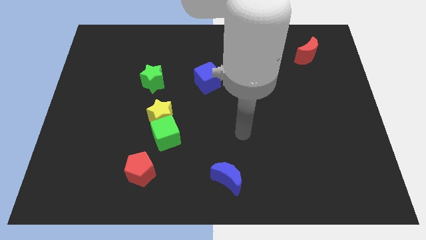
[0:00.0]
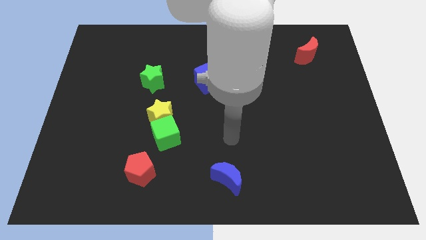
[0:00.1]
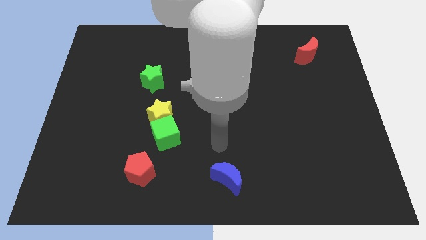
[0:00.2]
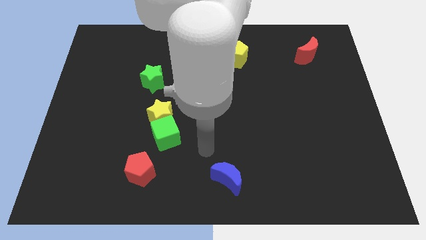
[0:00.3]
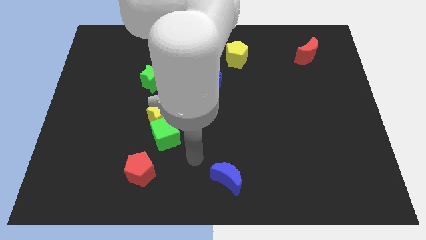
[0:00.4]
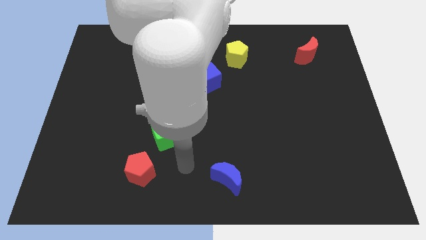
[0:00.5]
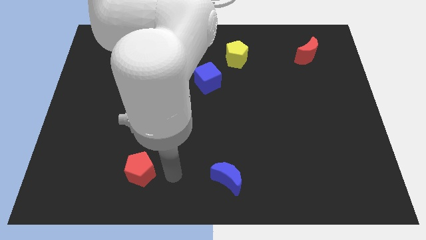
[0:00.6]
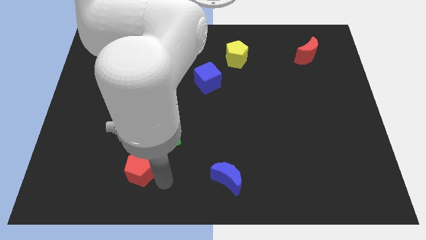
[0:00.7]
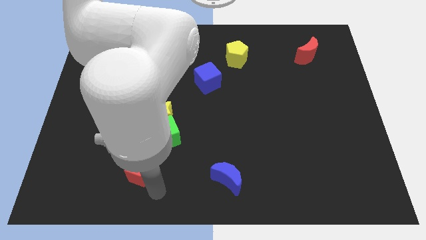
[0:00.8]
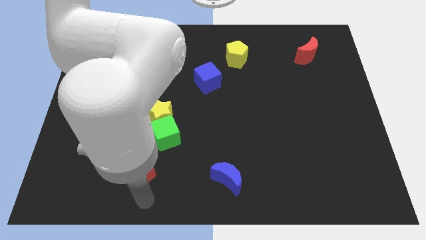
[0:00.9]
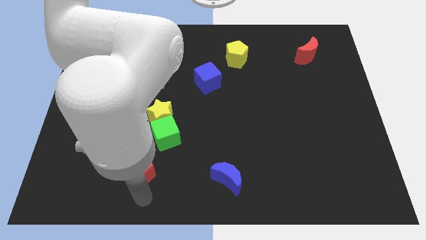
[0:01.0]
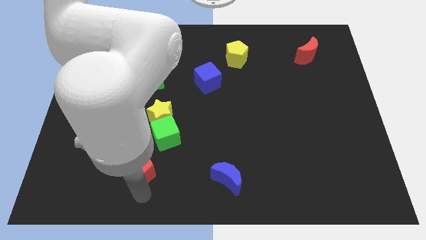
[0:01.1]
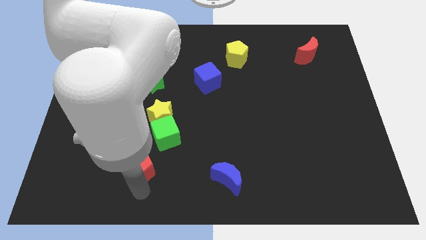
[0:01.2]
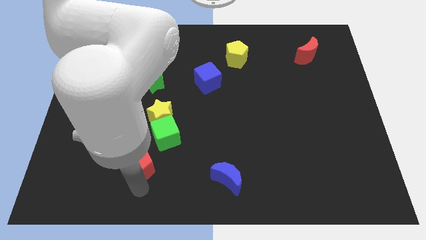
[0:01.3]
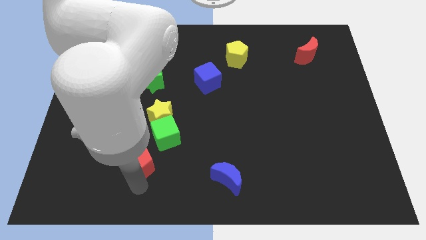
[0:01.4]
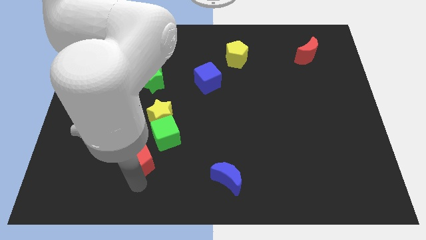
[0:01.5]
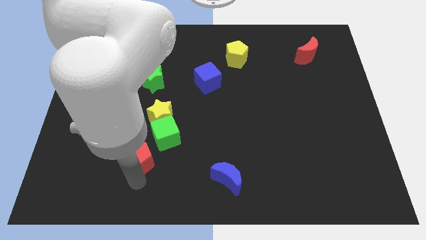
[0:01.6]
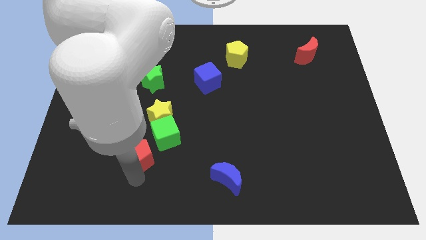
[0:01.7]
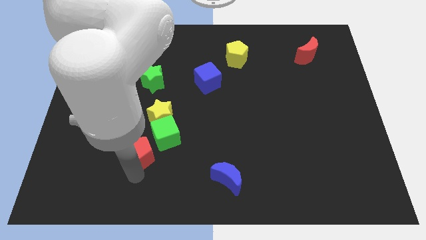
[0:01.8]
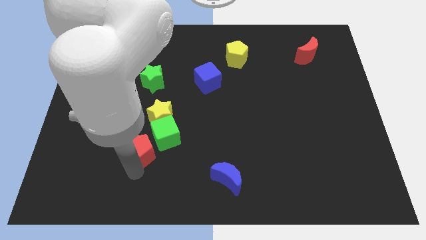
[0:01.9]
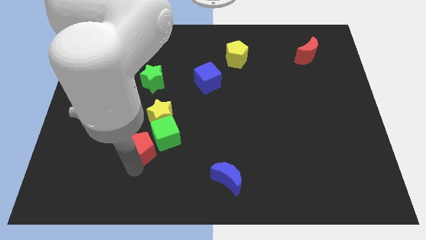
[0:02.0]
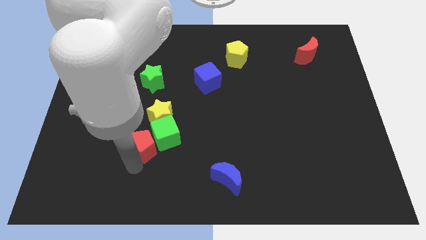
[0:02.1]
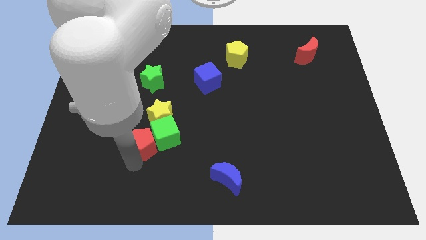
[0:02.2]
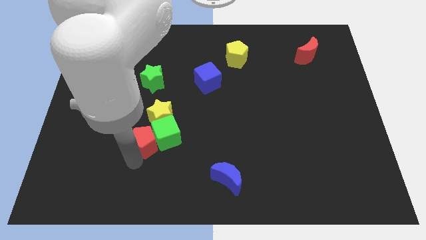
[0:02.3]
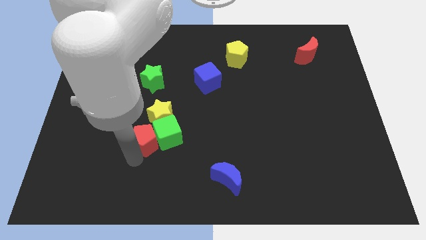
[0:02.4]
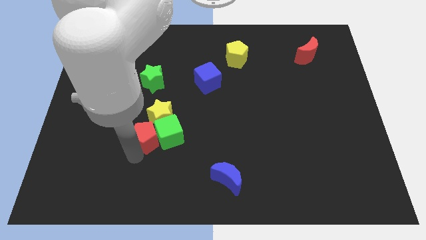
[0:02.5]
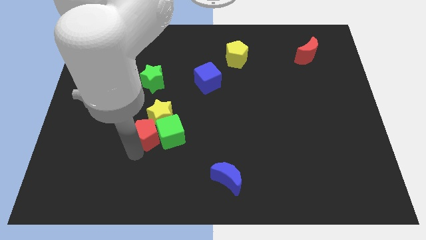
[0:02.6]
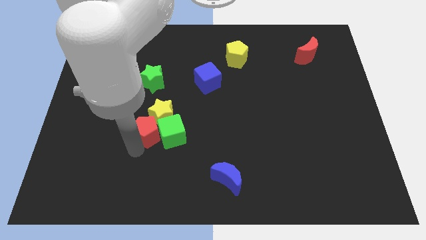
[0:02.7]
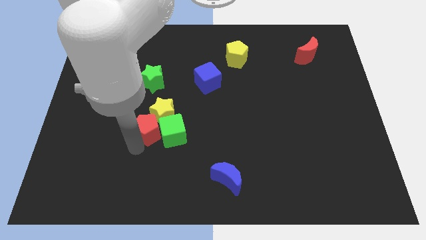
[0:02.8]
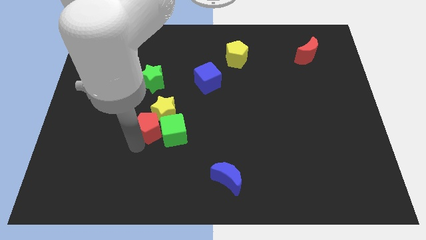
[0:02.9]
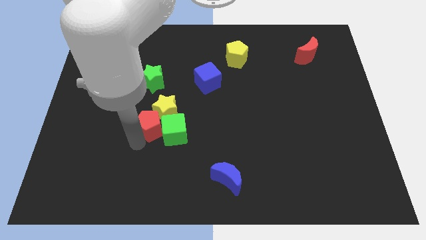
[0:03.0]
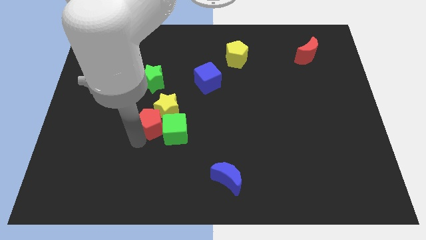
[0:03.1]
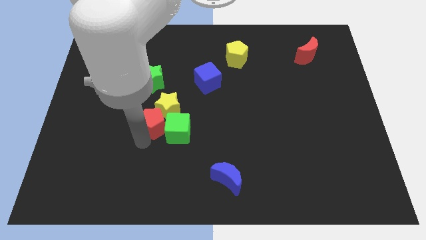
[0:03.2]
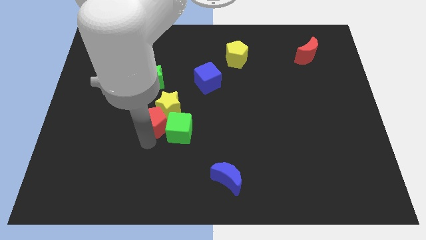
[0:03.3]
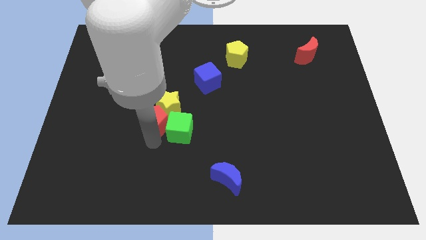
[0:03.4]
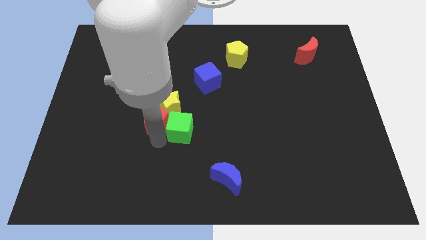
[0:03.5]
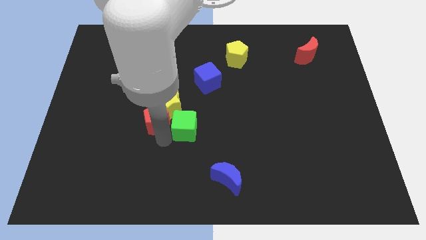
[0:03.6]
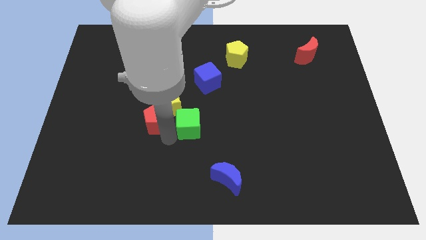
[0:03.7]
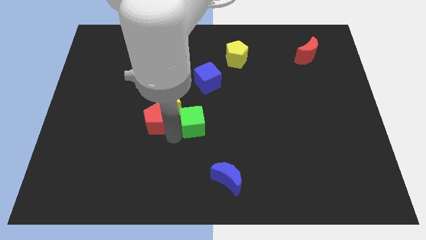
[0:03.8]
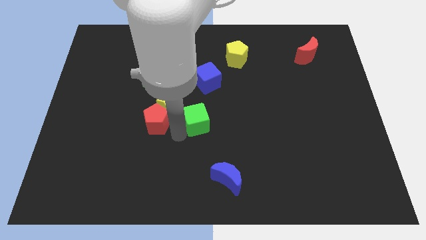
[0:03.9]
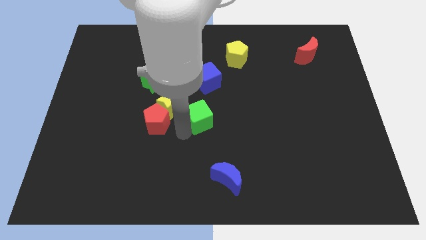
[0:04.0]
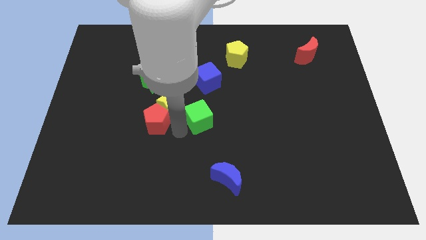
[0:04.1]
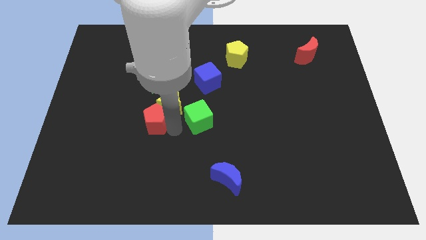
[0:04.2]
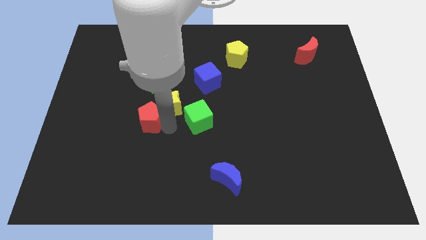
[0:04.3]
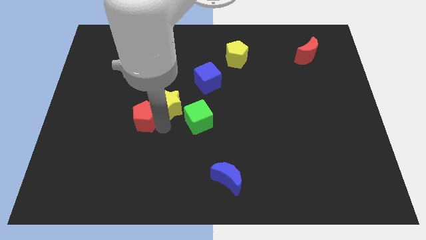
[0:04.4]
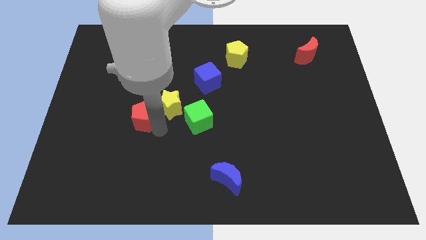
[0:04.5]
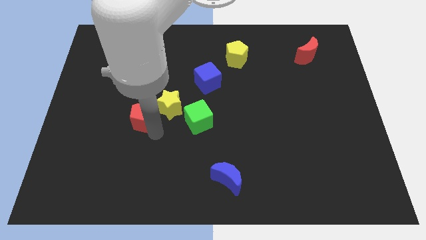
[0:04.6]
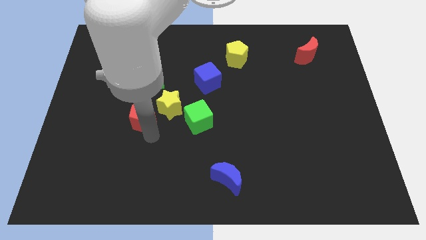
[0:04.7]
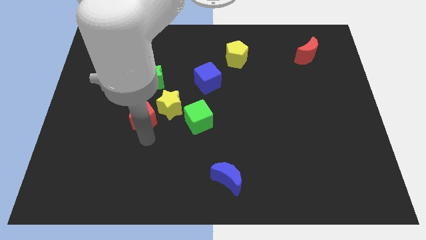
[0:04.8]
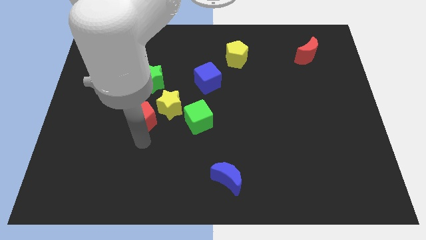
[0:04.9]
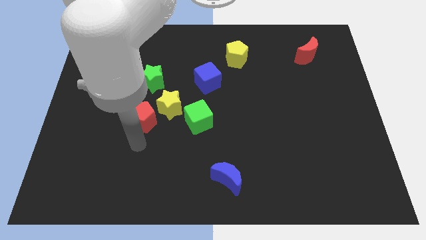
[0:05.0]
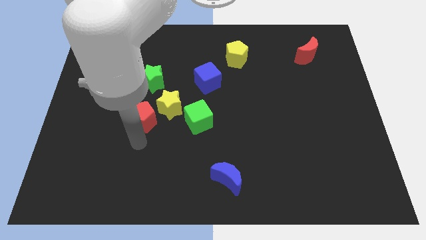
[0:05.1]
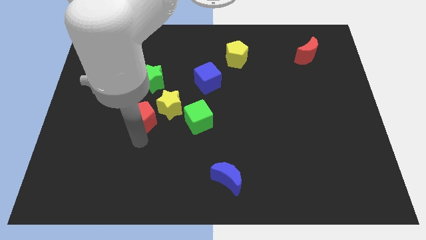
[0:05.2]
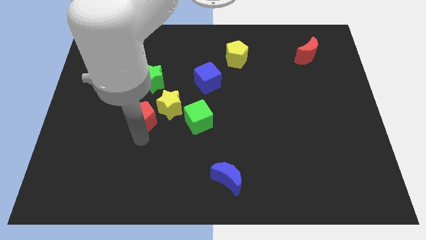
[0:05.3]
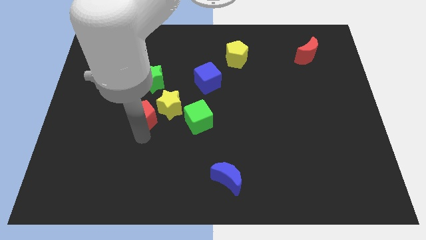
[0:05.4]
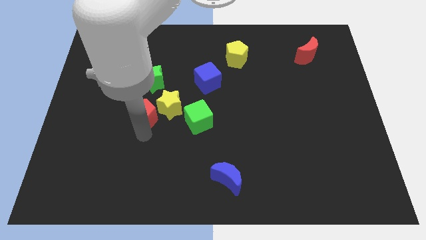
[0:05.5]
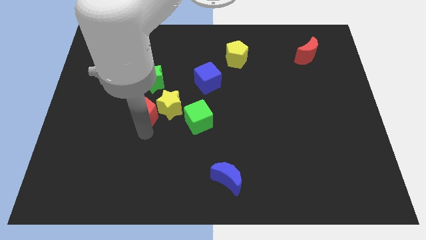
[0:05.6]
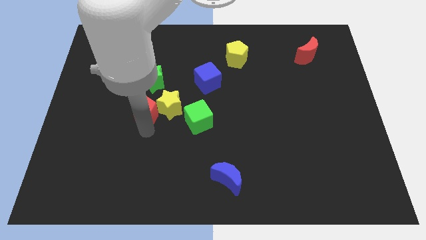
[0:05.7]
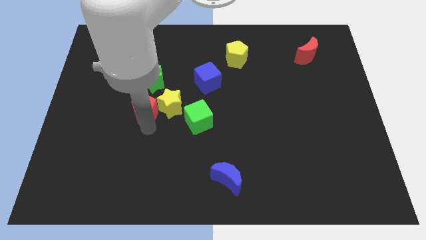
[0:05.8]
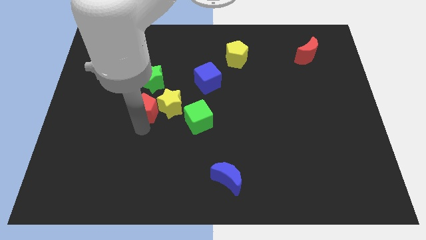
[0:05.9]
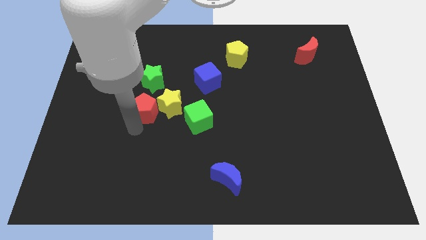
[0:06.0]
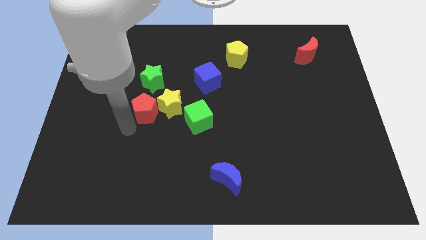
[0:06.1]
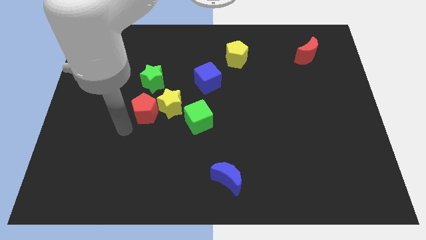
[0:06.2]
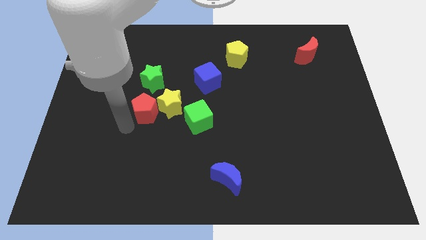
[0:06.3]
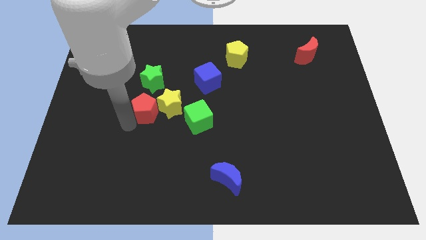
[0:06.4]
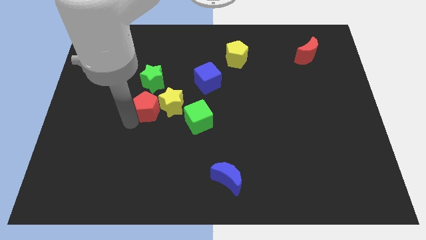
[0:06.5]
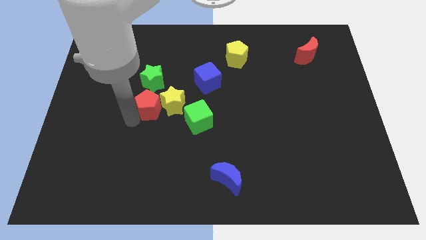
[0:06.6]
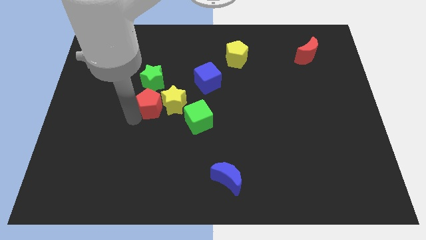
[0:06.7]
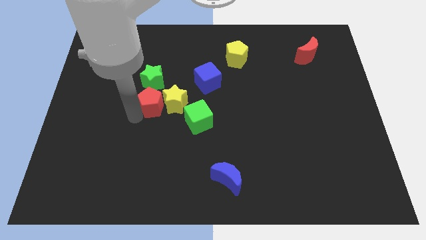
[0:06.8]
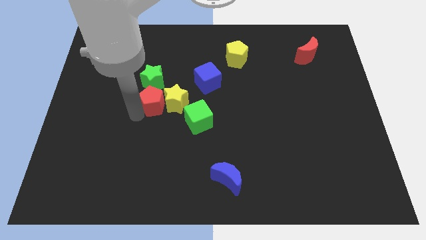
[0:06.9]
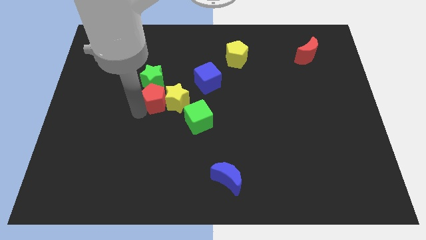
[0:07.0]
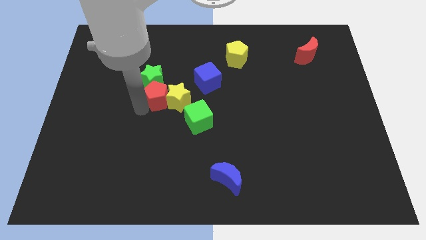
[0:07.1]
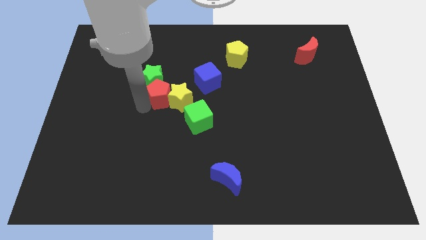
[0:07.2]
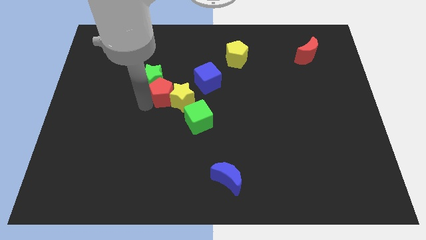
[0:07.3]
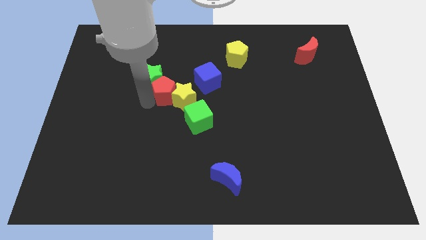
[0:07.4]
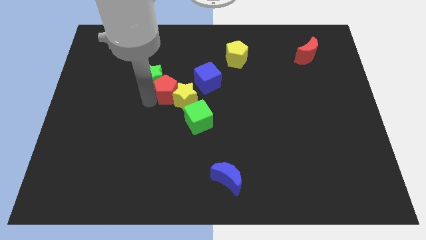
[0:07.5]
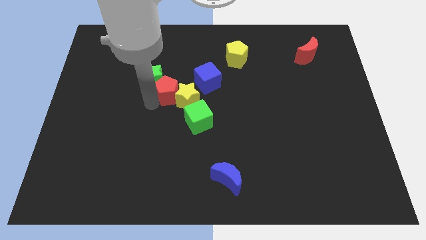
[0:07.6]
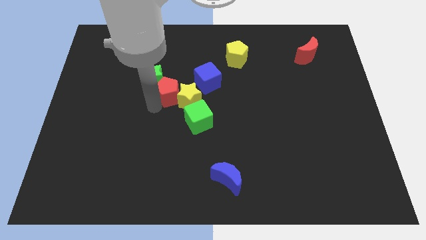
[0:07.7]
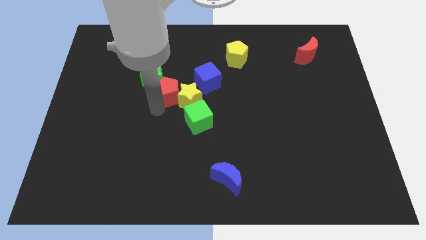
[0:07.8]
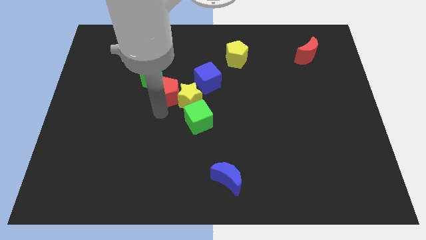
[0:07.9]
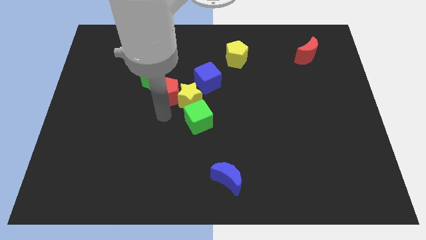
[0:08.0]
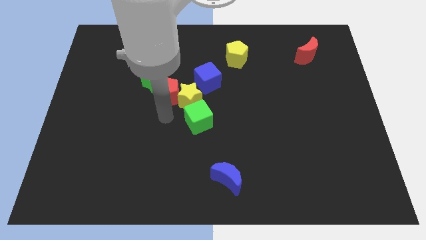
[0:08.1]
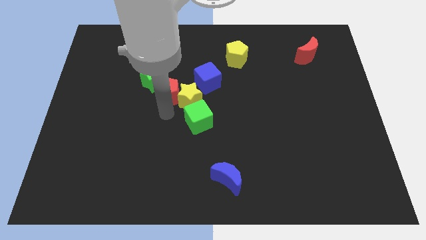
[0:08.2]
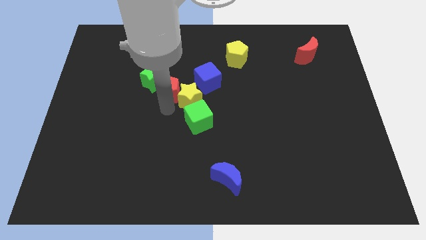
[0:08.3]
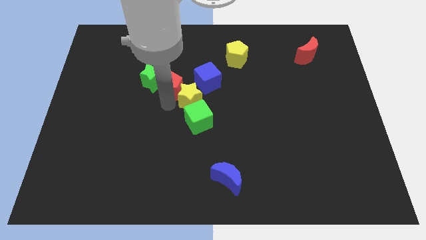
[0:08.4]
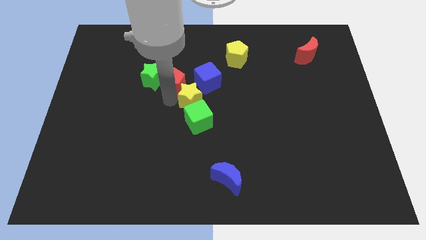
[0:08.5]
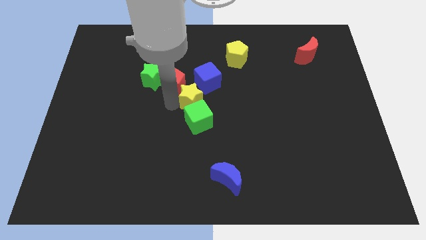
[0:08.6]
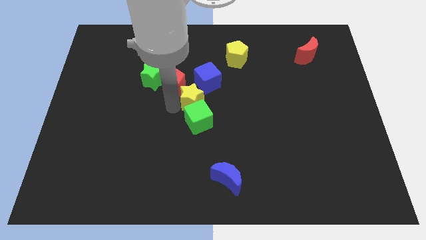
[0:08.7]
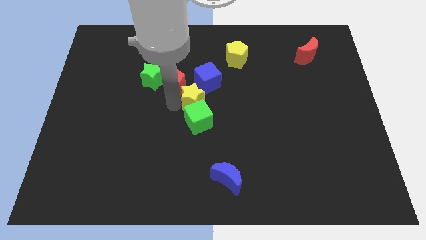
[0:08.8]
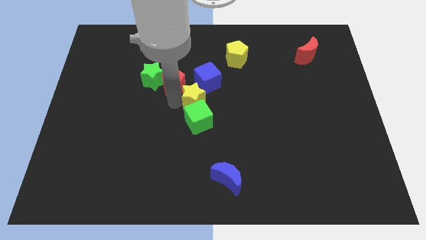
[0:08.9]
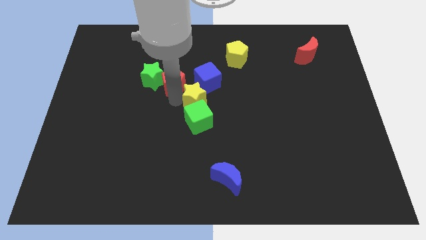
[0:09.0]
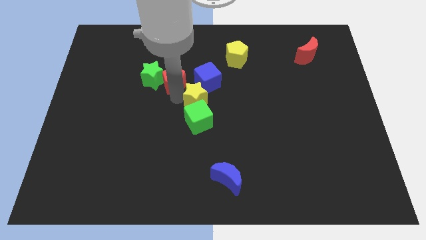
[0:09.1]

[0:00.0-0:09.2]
put the red pentagon to the top right of the green star
